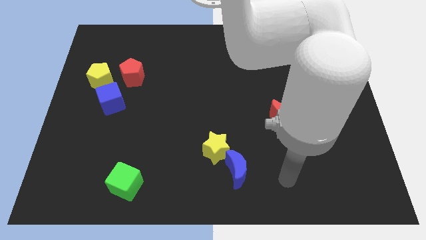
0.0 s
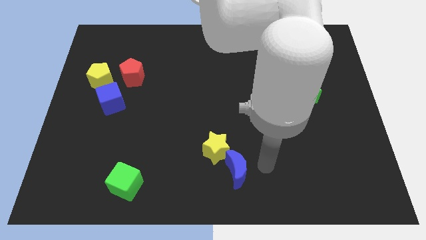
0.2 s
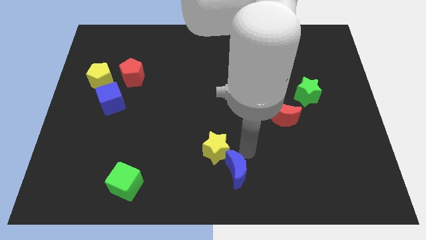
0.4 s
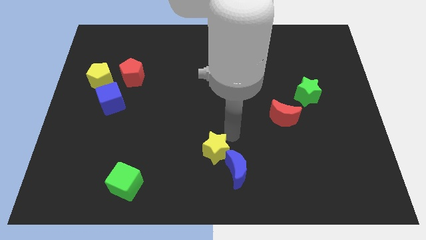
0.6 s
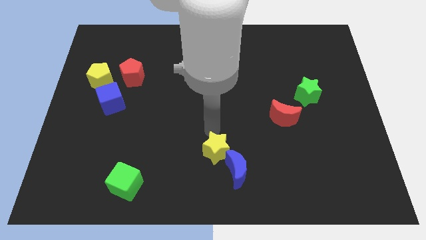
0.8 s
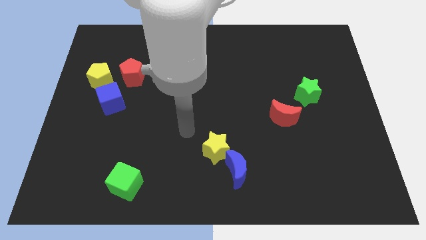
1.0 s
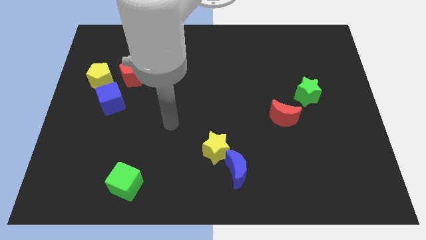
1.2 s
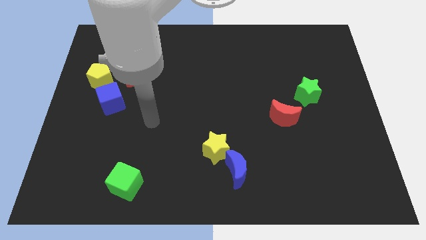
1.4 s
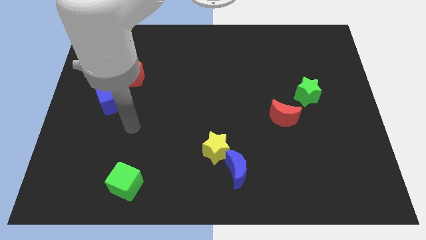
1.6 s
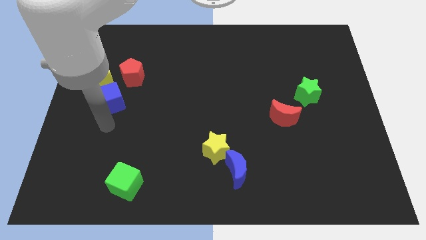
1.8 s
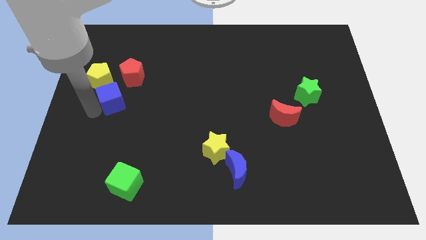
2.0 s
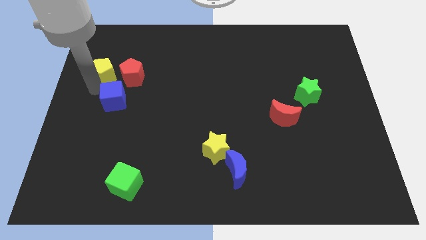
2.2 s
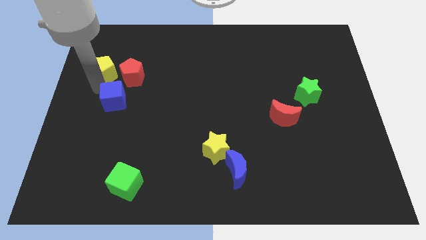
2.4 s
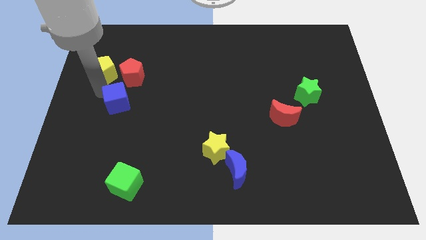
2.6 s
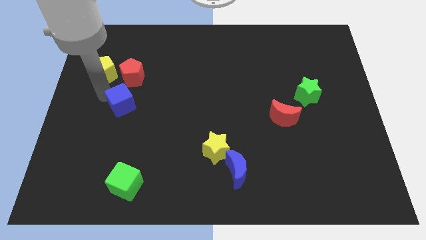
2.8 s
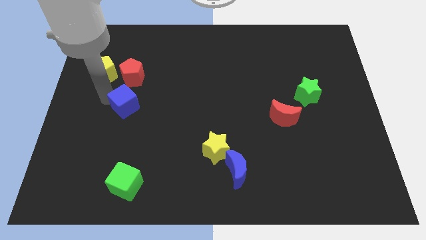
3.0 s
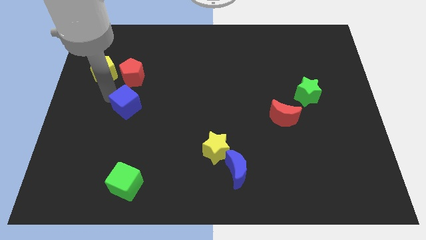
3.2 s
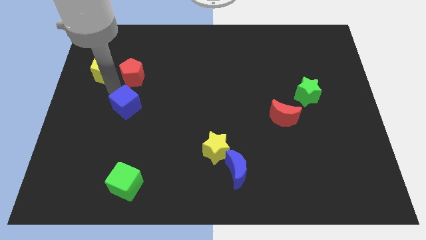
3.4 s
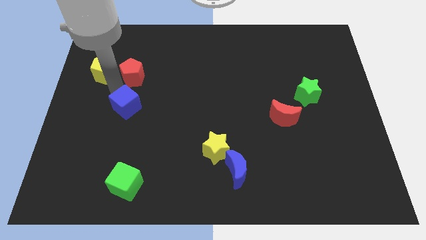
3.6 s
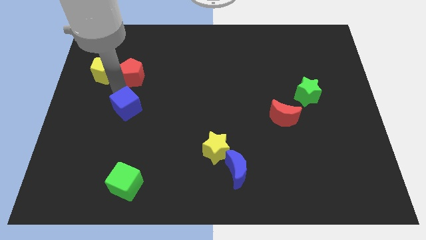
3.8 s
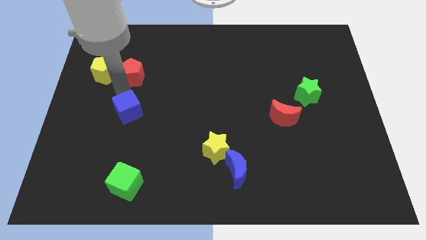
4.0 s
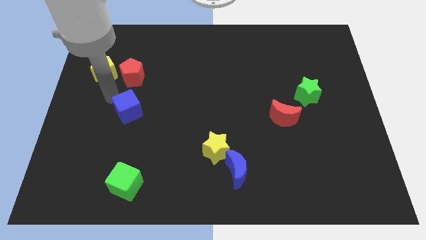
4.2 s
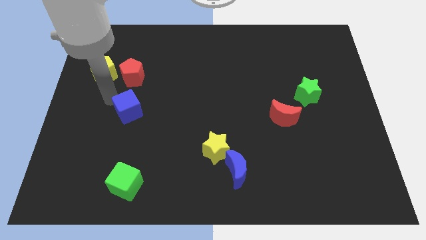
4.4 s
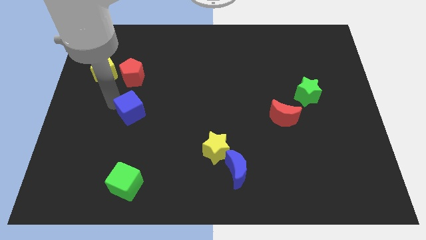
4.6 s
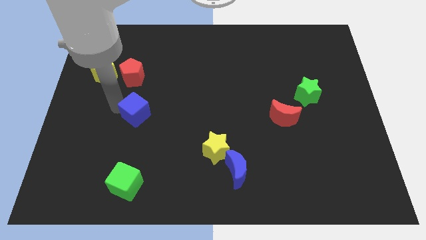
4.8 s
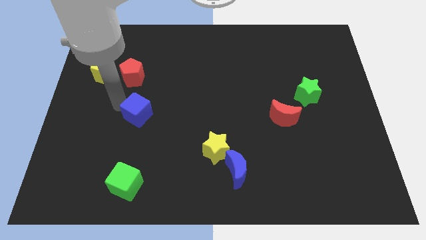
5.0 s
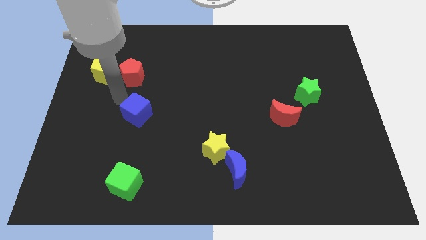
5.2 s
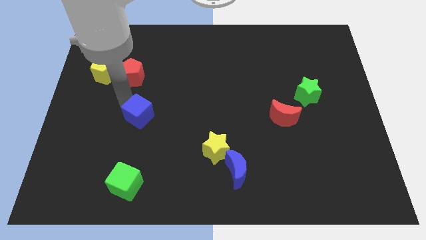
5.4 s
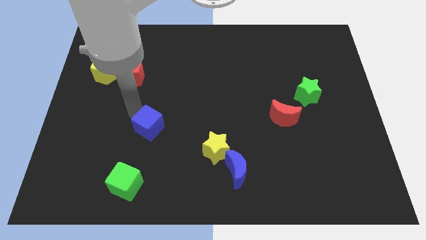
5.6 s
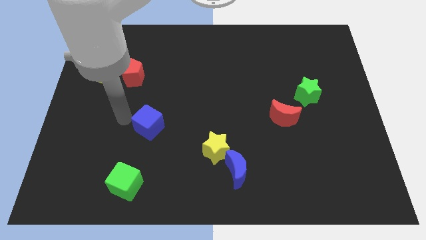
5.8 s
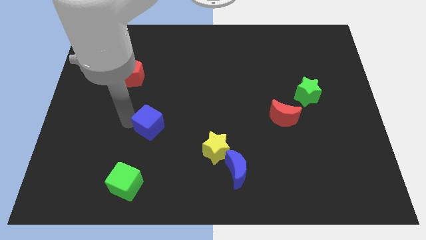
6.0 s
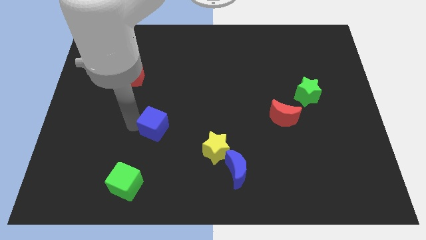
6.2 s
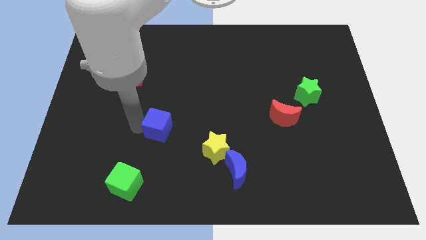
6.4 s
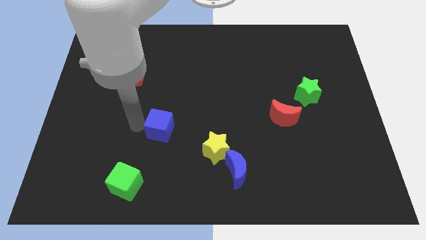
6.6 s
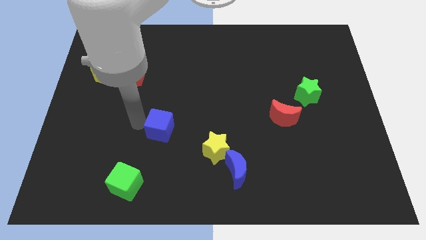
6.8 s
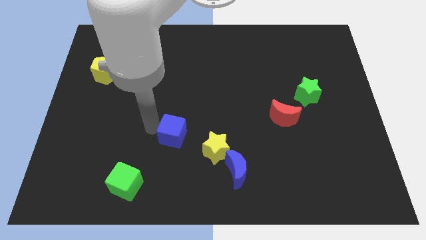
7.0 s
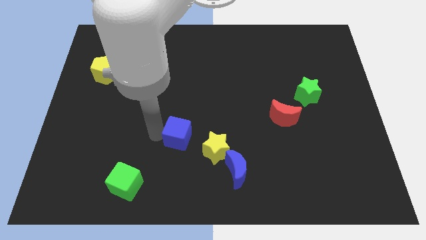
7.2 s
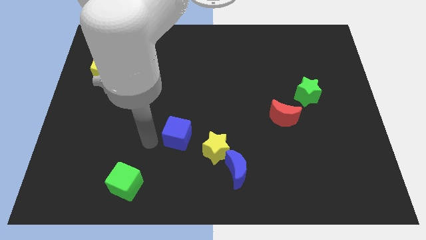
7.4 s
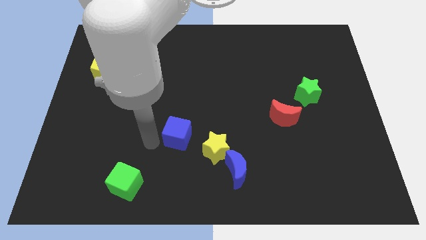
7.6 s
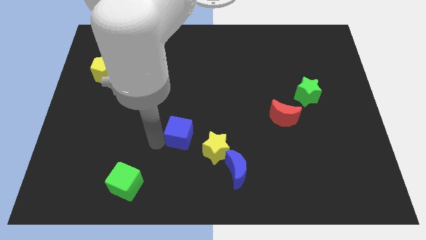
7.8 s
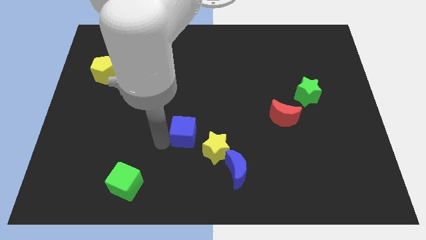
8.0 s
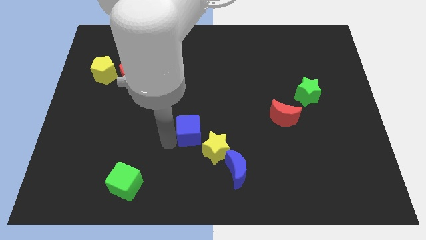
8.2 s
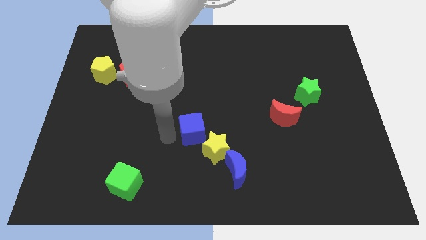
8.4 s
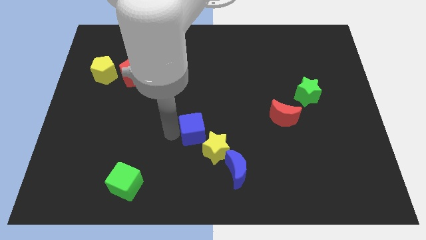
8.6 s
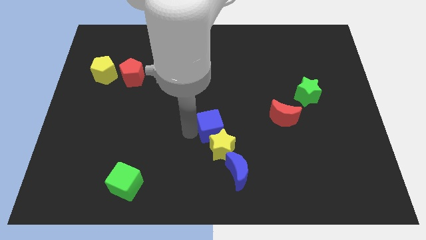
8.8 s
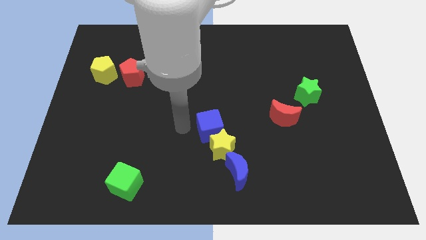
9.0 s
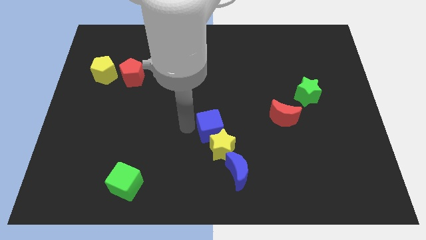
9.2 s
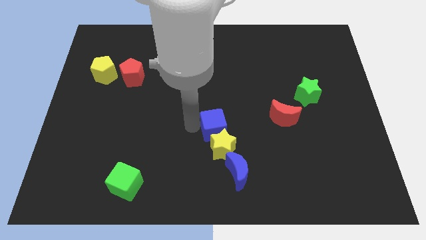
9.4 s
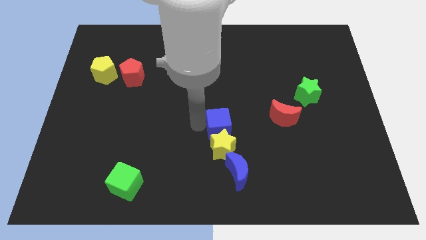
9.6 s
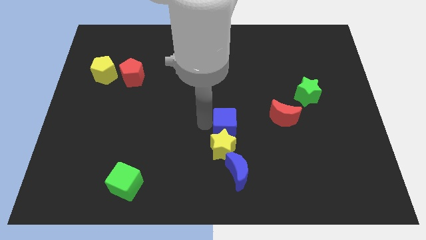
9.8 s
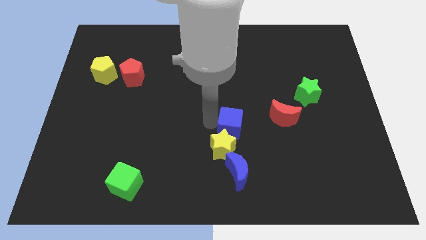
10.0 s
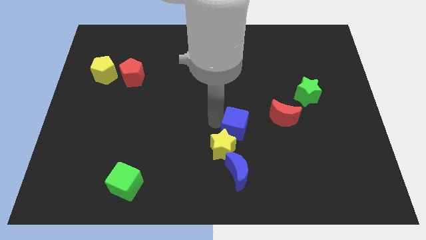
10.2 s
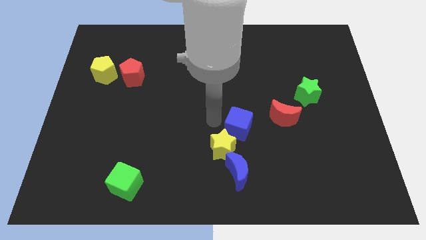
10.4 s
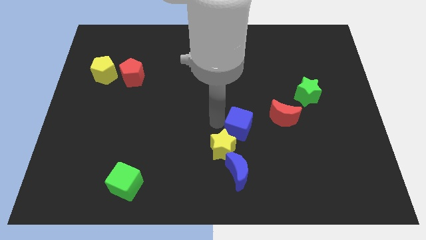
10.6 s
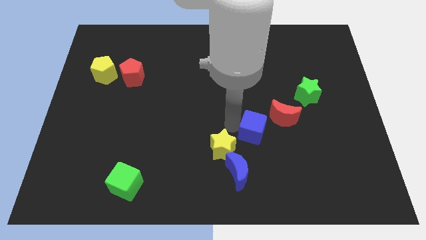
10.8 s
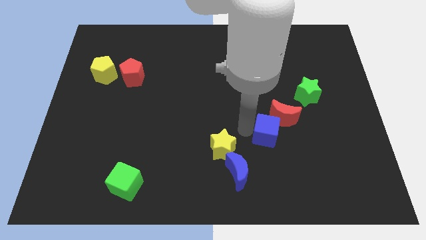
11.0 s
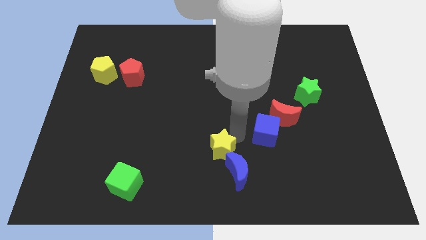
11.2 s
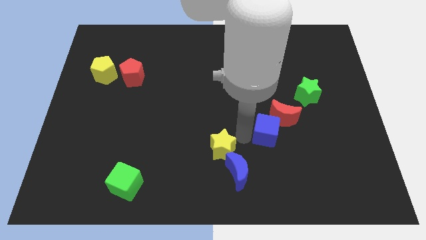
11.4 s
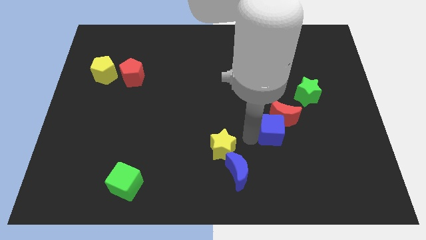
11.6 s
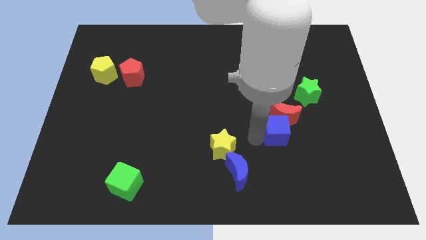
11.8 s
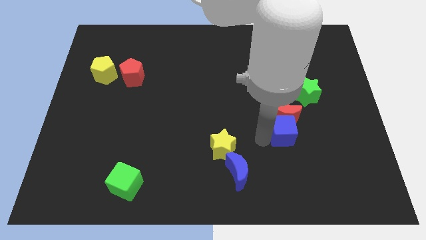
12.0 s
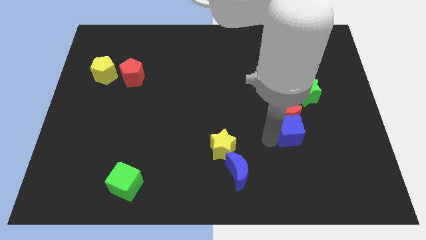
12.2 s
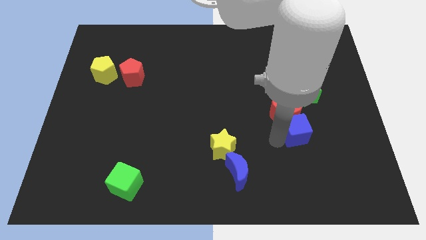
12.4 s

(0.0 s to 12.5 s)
put the blue cube to the bottom of the green star

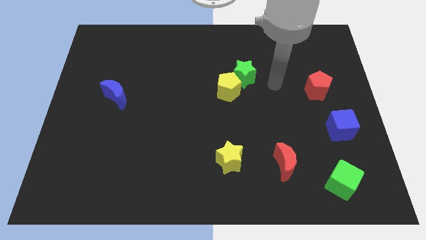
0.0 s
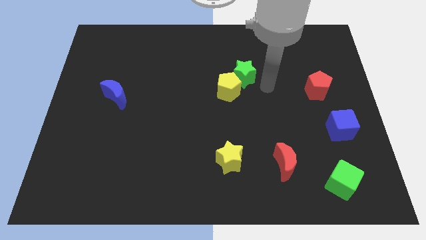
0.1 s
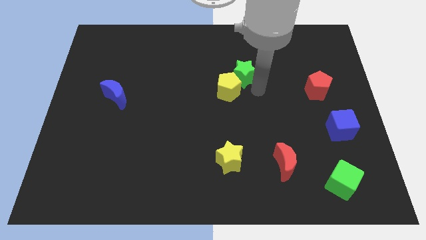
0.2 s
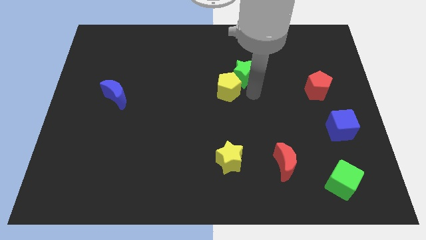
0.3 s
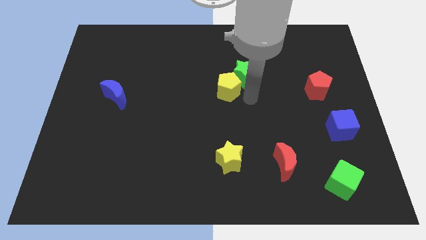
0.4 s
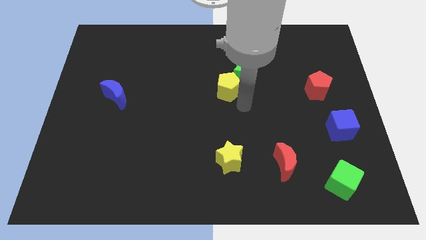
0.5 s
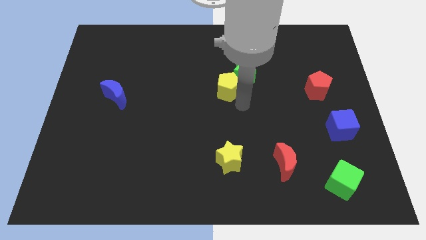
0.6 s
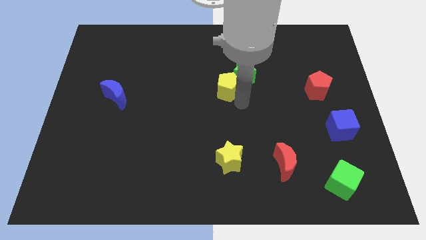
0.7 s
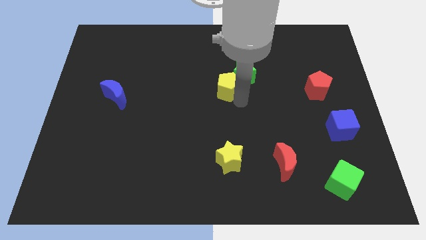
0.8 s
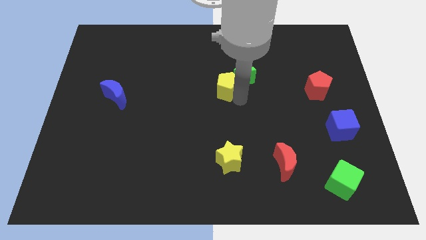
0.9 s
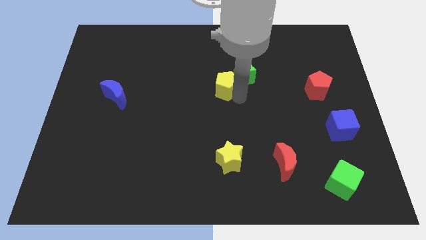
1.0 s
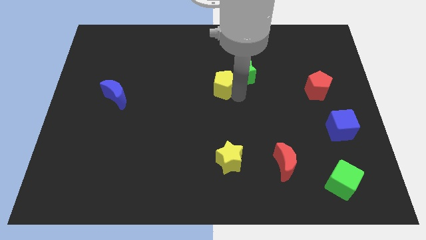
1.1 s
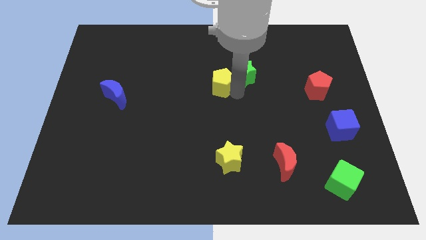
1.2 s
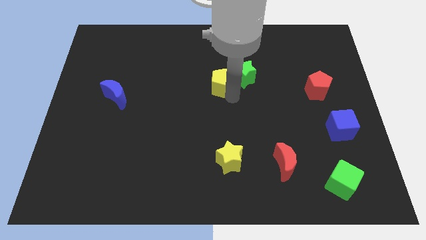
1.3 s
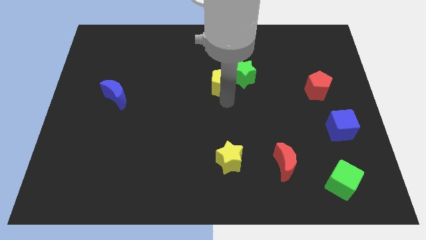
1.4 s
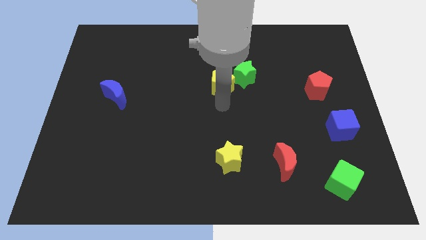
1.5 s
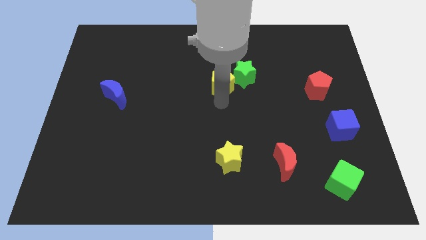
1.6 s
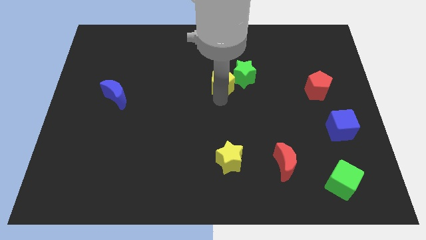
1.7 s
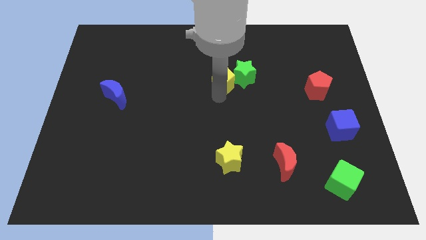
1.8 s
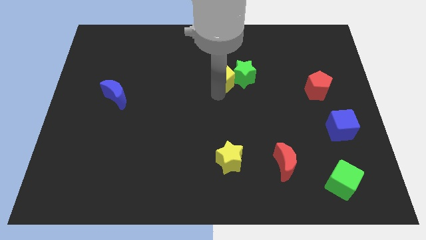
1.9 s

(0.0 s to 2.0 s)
move the yellow pentagon to the top left of the green star
